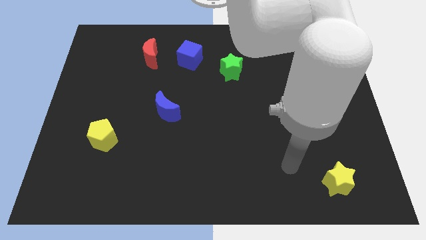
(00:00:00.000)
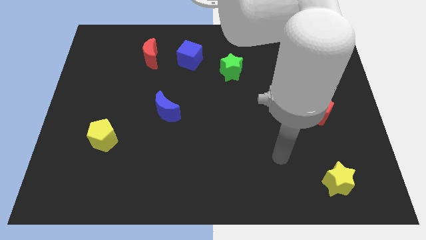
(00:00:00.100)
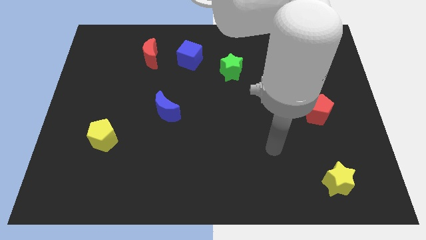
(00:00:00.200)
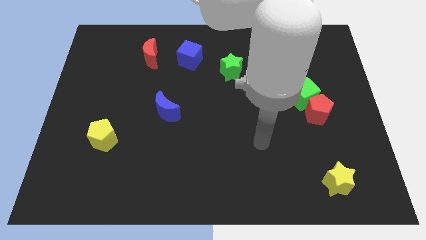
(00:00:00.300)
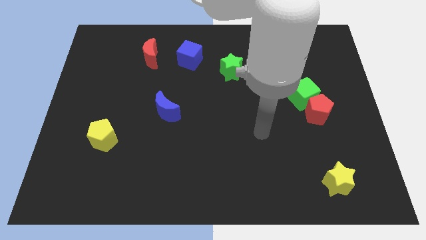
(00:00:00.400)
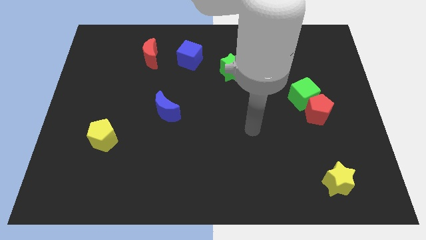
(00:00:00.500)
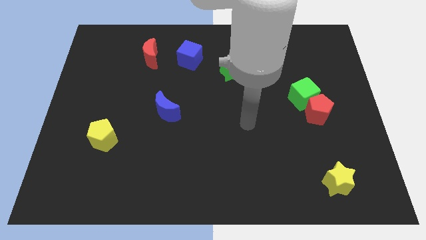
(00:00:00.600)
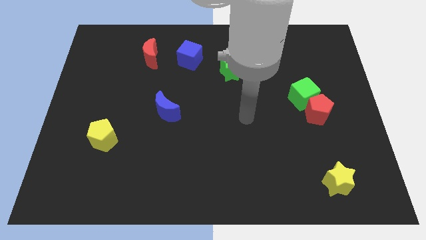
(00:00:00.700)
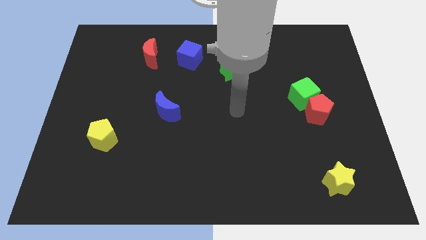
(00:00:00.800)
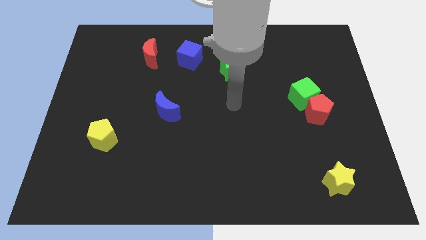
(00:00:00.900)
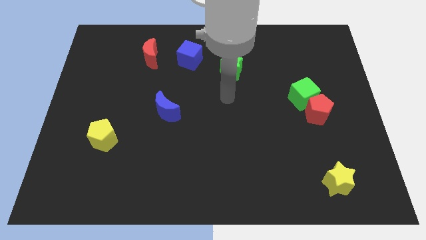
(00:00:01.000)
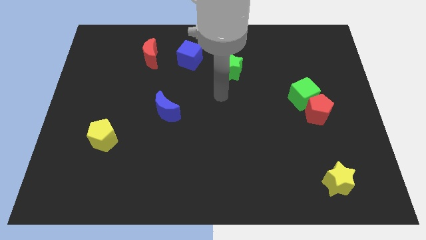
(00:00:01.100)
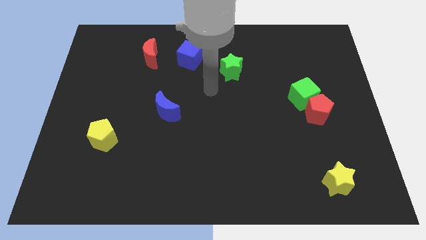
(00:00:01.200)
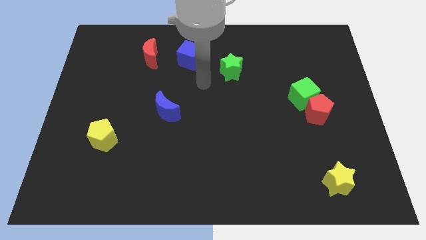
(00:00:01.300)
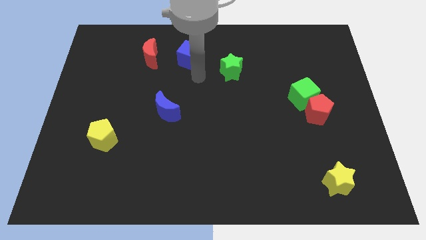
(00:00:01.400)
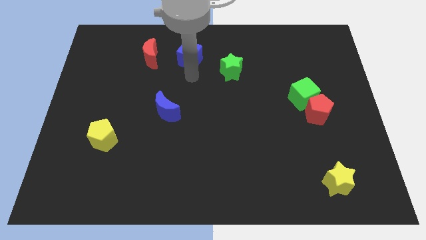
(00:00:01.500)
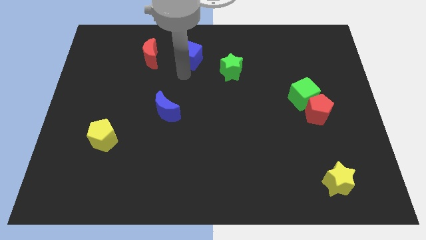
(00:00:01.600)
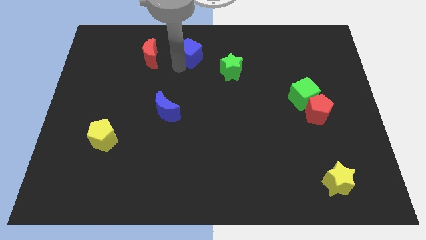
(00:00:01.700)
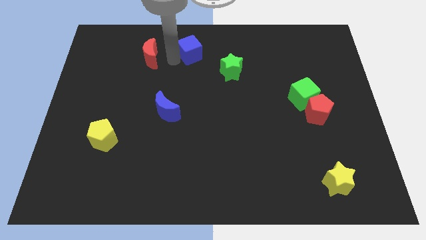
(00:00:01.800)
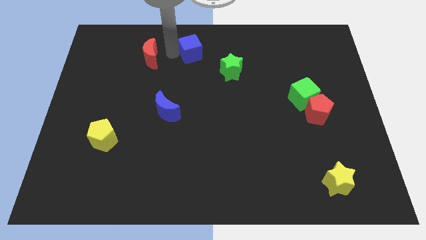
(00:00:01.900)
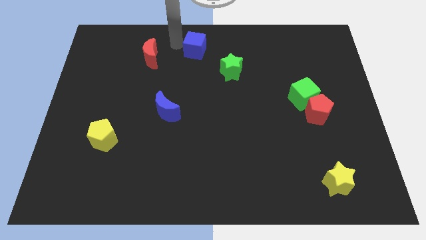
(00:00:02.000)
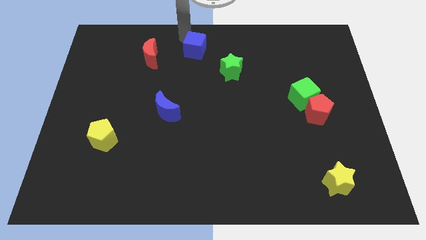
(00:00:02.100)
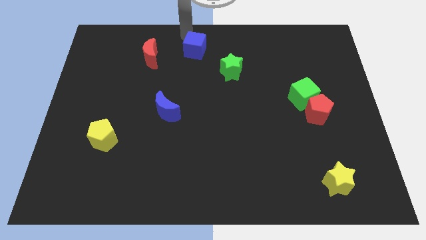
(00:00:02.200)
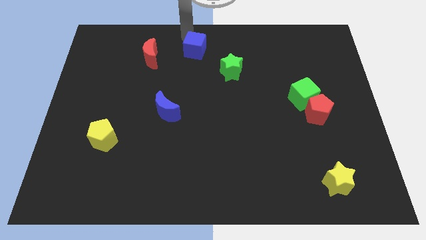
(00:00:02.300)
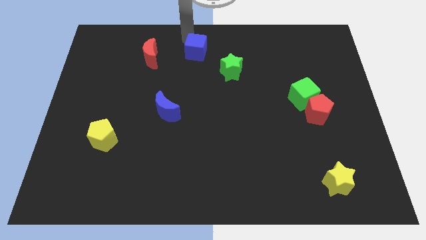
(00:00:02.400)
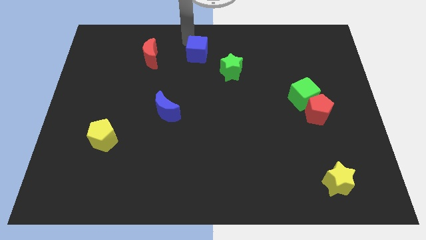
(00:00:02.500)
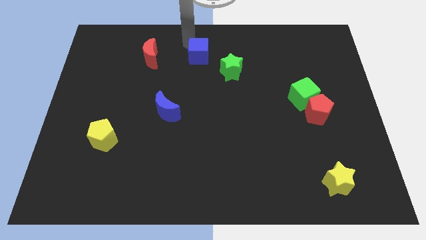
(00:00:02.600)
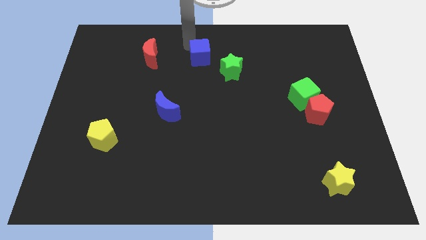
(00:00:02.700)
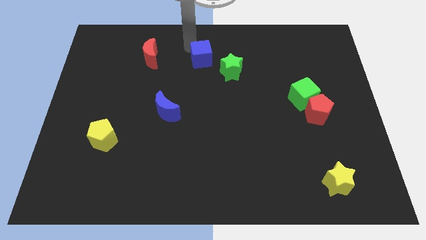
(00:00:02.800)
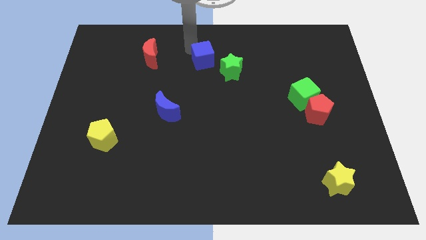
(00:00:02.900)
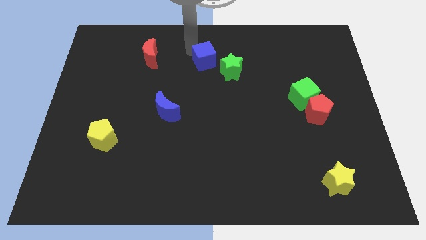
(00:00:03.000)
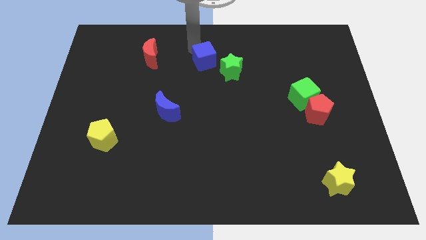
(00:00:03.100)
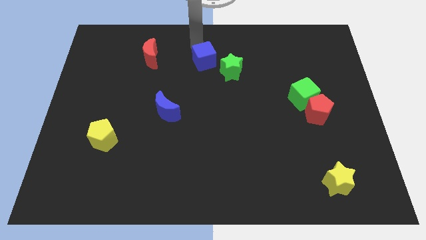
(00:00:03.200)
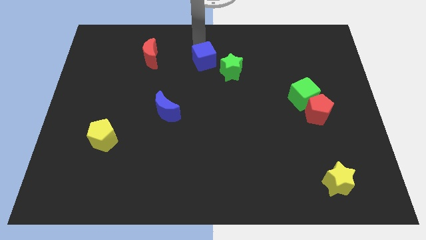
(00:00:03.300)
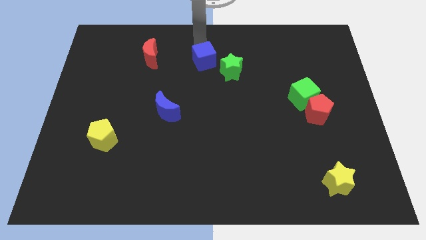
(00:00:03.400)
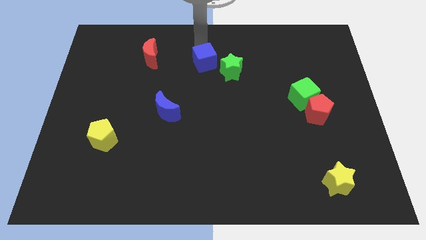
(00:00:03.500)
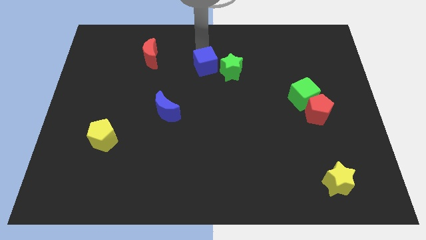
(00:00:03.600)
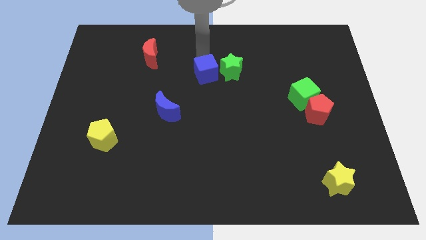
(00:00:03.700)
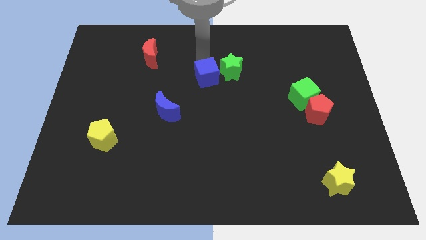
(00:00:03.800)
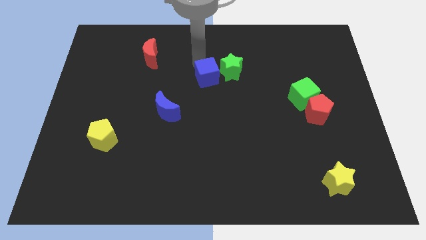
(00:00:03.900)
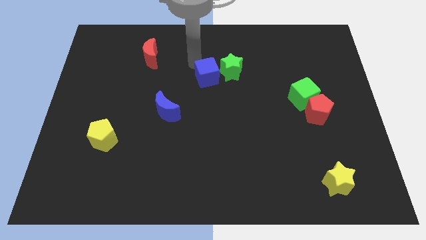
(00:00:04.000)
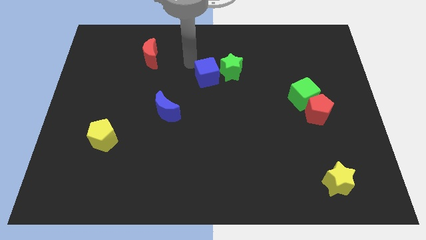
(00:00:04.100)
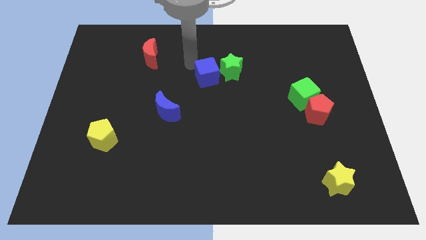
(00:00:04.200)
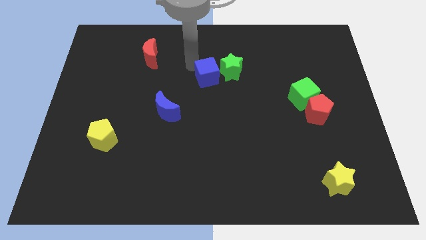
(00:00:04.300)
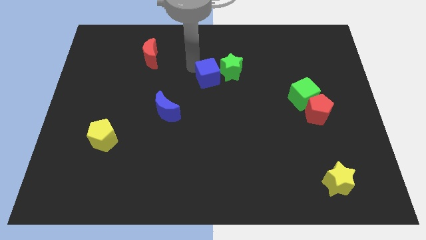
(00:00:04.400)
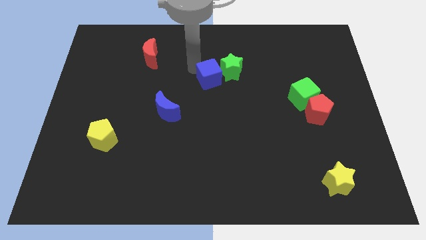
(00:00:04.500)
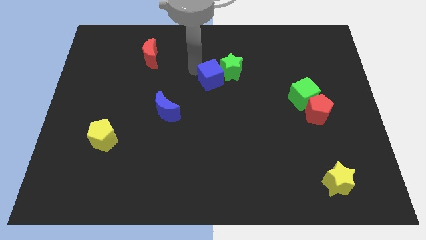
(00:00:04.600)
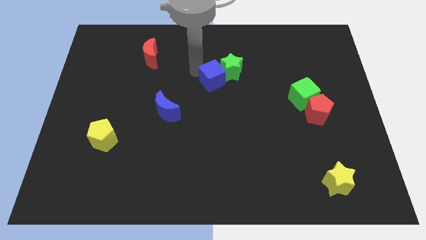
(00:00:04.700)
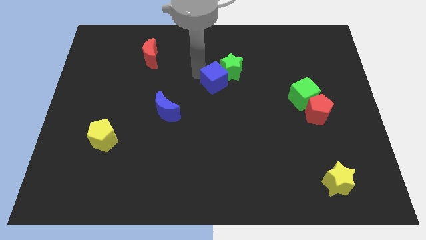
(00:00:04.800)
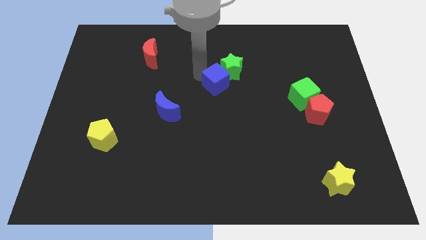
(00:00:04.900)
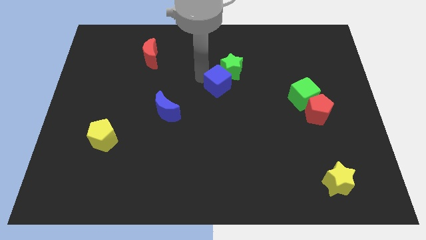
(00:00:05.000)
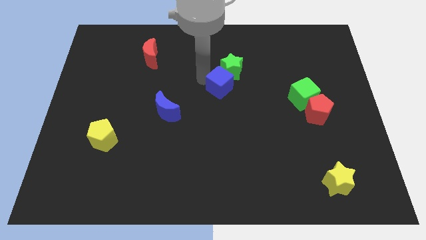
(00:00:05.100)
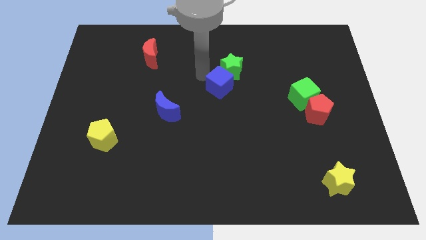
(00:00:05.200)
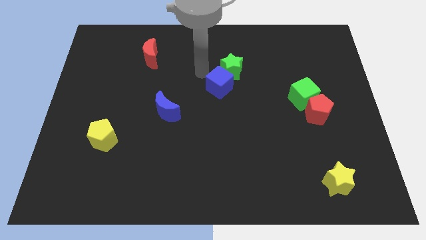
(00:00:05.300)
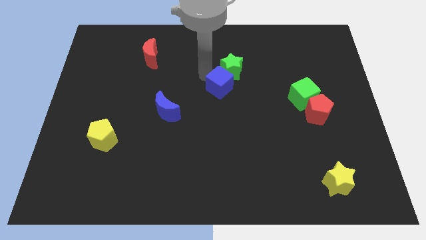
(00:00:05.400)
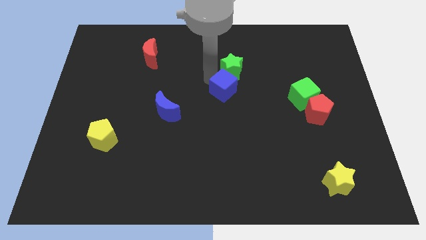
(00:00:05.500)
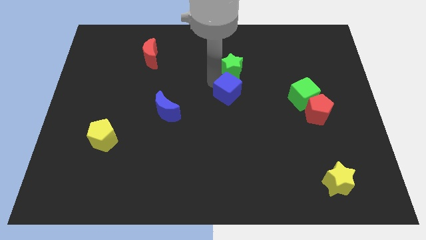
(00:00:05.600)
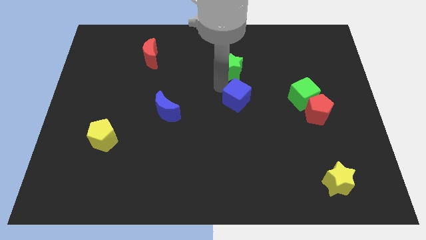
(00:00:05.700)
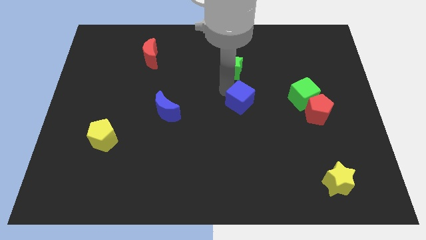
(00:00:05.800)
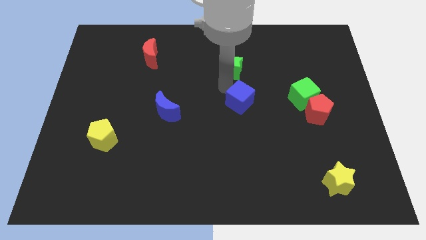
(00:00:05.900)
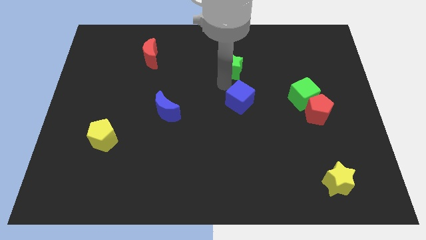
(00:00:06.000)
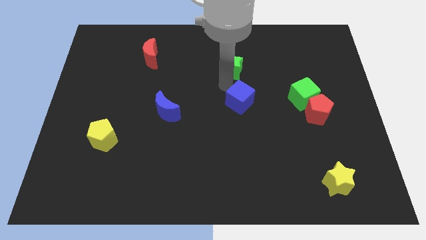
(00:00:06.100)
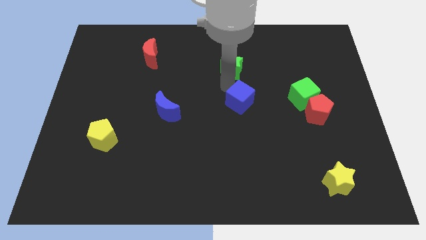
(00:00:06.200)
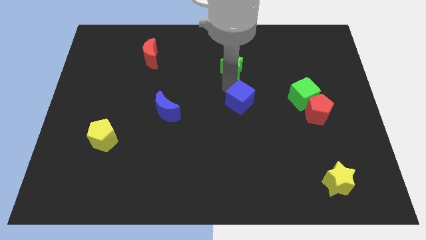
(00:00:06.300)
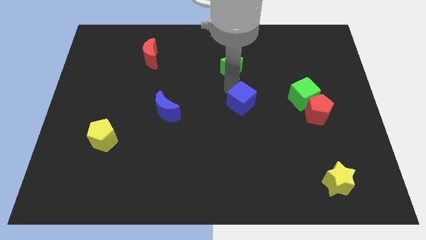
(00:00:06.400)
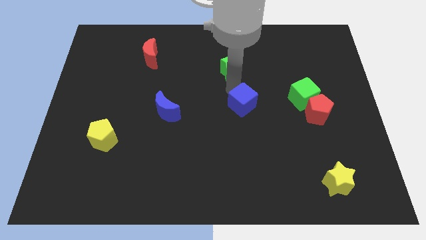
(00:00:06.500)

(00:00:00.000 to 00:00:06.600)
slide the blue cube diagonally downwards and to the right

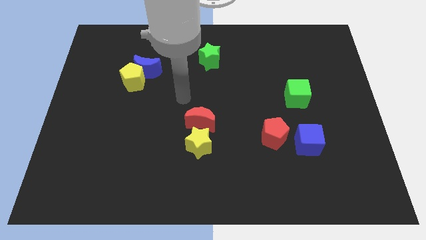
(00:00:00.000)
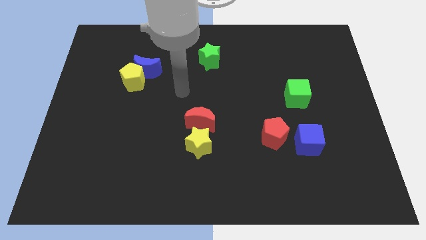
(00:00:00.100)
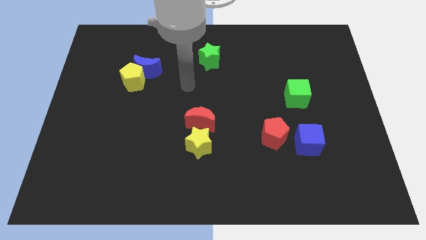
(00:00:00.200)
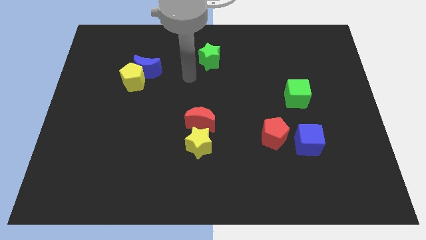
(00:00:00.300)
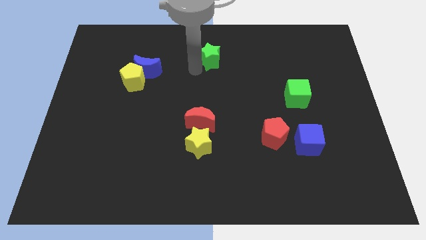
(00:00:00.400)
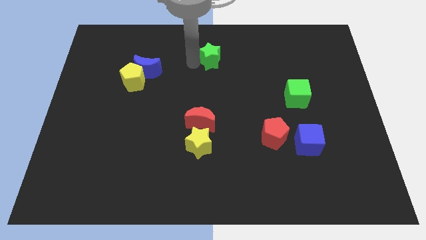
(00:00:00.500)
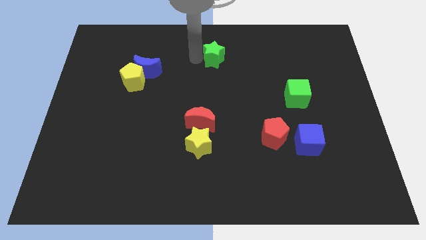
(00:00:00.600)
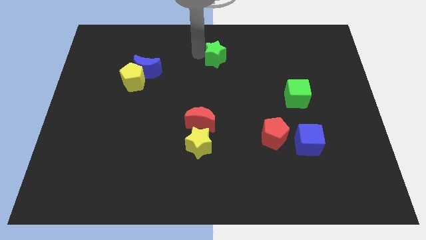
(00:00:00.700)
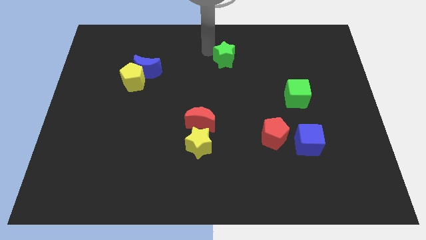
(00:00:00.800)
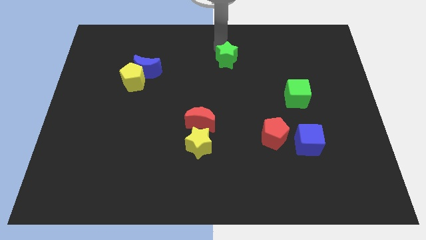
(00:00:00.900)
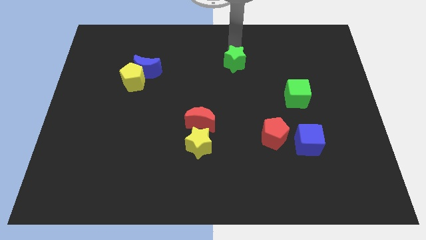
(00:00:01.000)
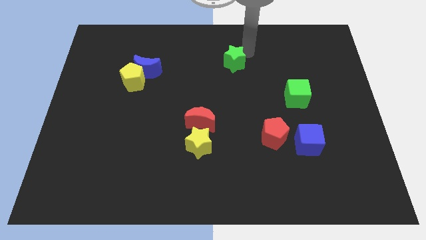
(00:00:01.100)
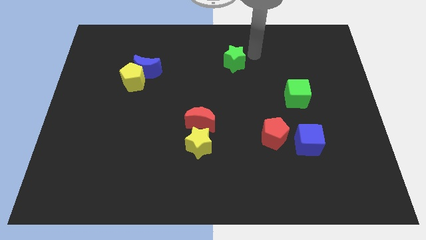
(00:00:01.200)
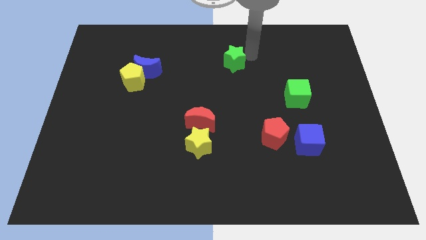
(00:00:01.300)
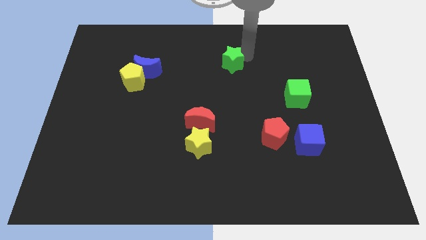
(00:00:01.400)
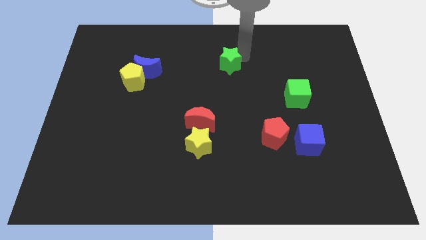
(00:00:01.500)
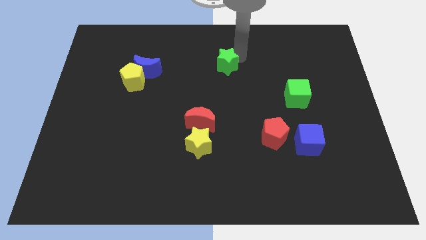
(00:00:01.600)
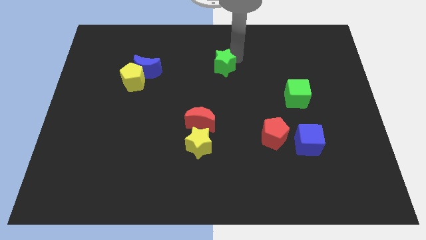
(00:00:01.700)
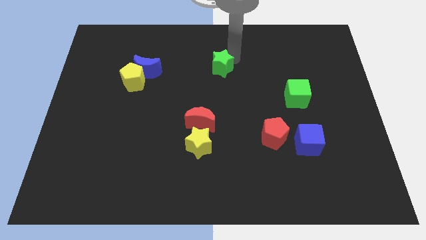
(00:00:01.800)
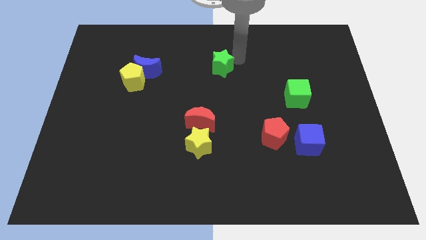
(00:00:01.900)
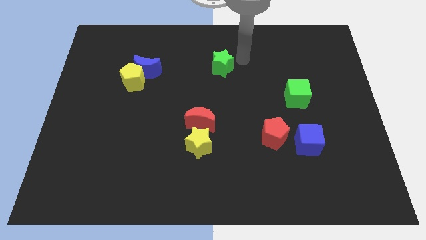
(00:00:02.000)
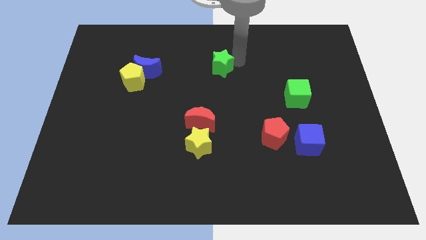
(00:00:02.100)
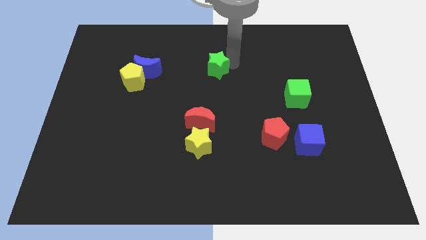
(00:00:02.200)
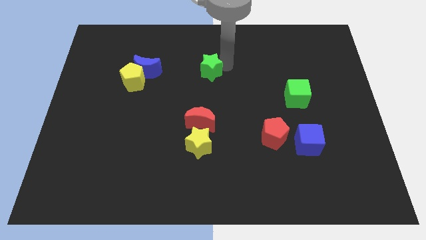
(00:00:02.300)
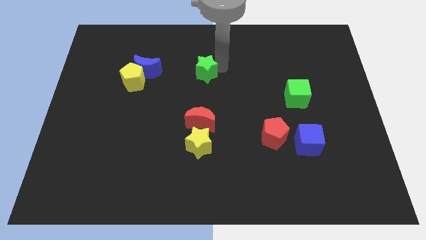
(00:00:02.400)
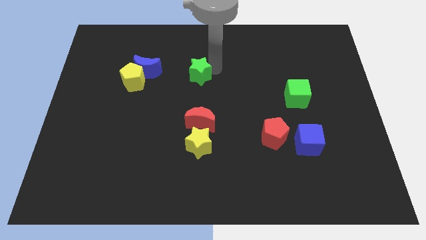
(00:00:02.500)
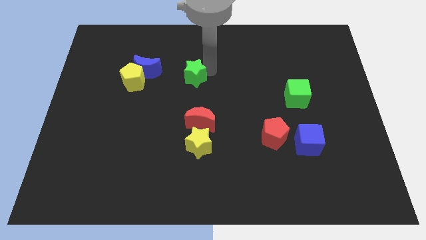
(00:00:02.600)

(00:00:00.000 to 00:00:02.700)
move the green star downwards and to the left diagonally a little bit
